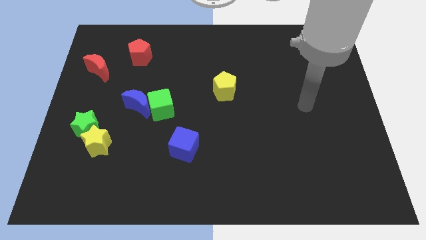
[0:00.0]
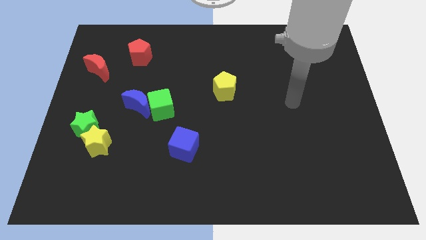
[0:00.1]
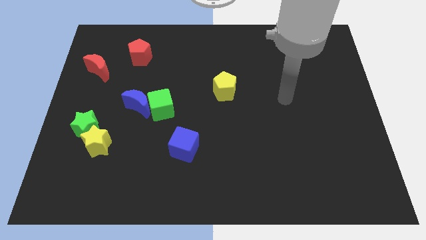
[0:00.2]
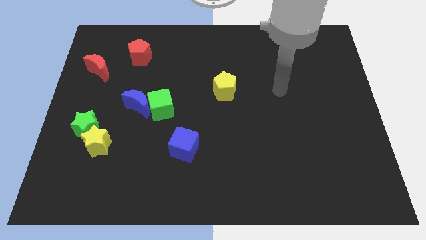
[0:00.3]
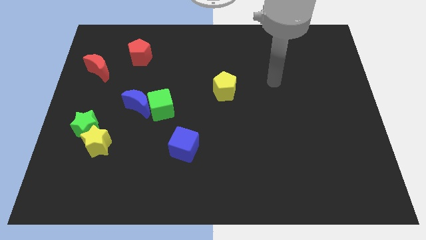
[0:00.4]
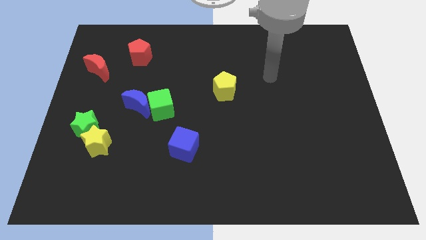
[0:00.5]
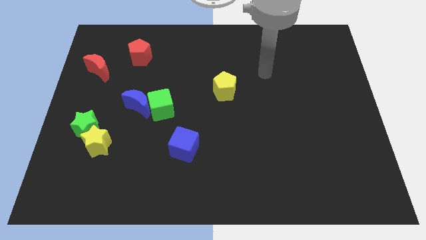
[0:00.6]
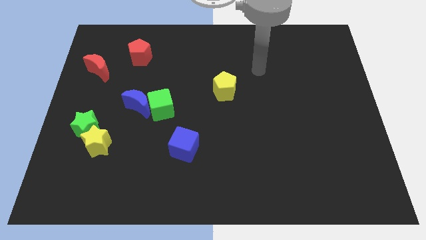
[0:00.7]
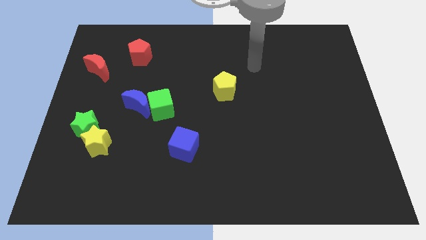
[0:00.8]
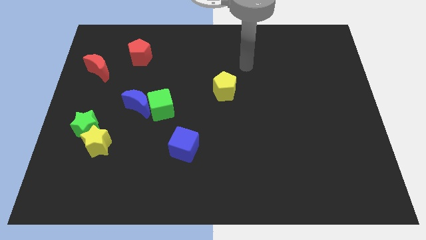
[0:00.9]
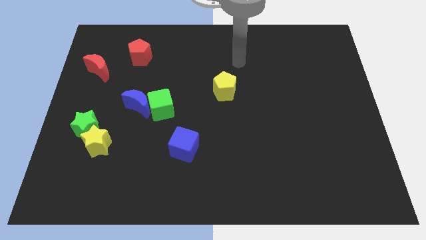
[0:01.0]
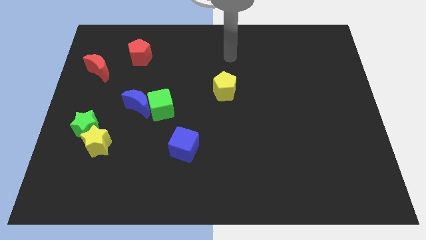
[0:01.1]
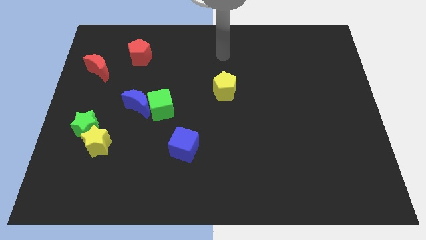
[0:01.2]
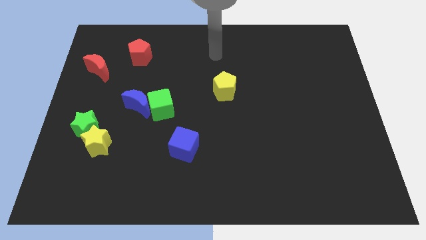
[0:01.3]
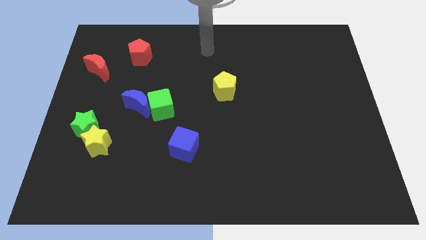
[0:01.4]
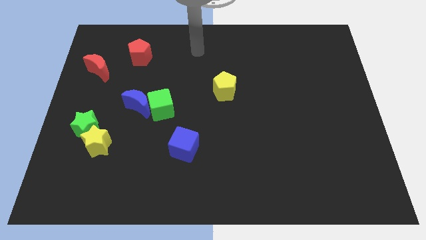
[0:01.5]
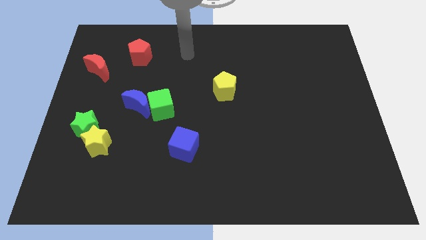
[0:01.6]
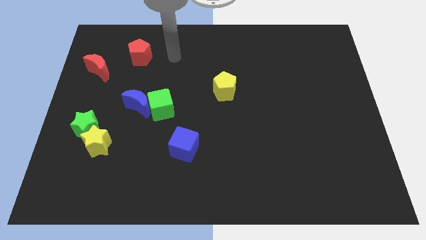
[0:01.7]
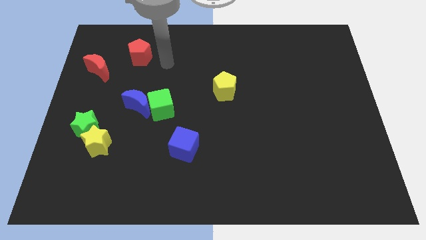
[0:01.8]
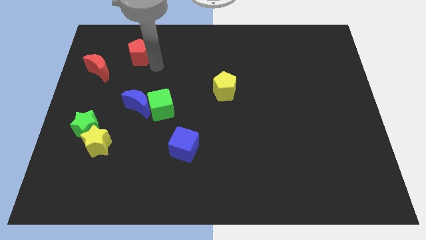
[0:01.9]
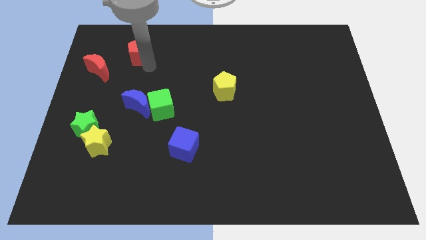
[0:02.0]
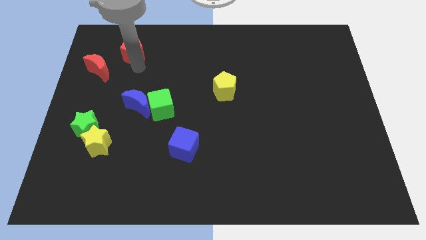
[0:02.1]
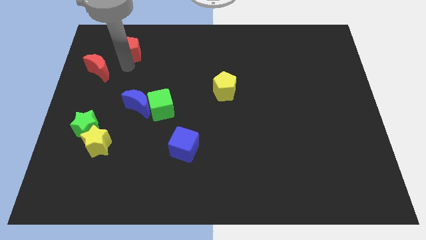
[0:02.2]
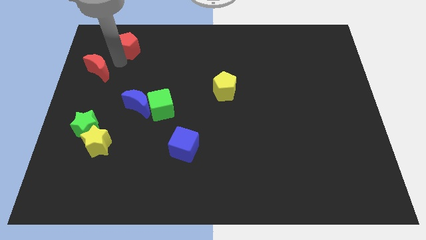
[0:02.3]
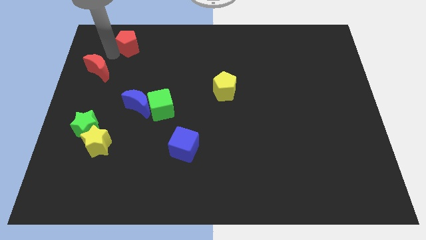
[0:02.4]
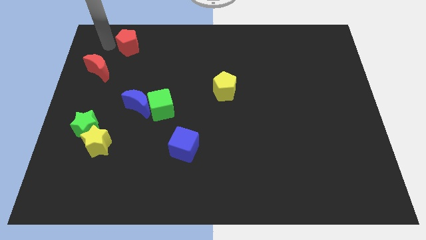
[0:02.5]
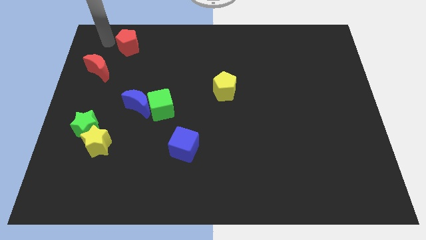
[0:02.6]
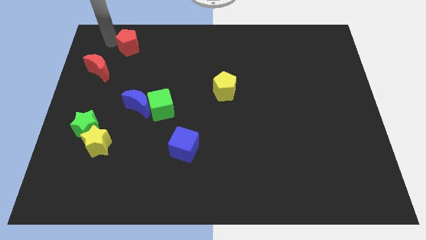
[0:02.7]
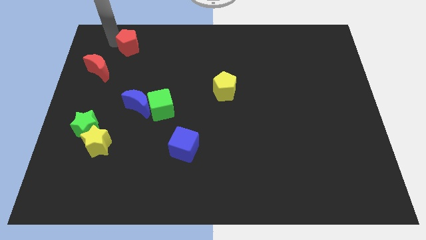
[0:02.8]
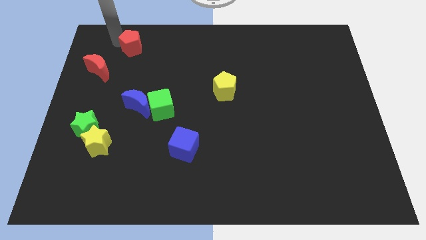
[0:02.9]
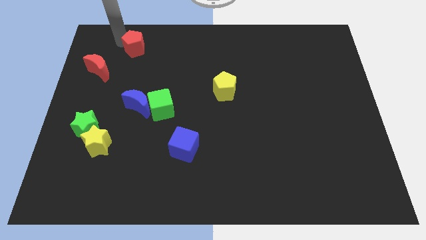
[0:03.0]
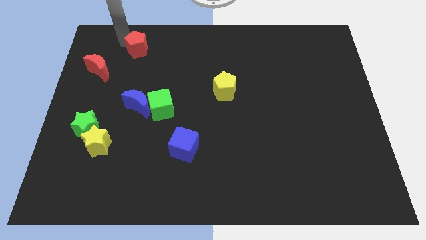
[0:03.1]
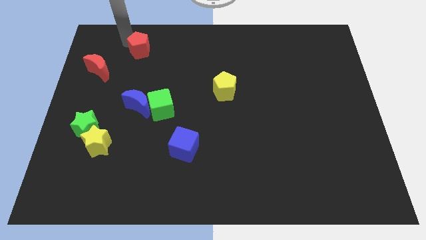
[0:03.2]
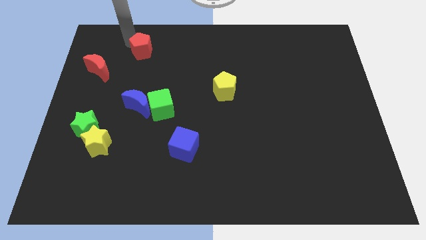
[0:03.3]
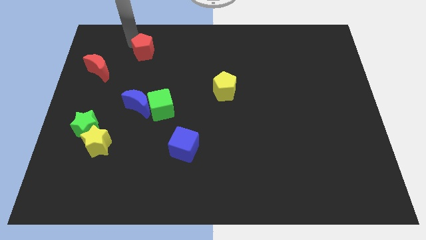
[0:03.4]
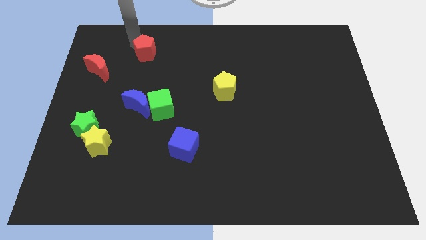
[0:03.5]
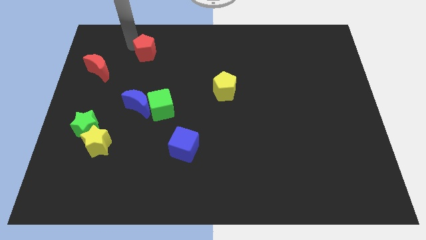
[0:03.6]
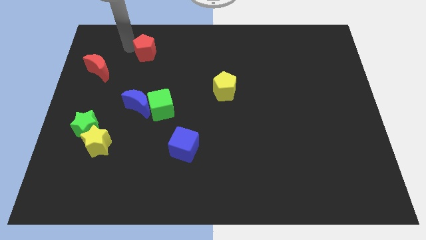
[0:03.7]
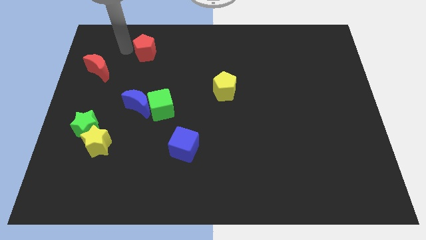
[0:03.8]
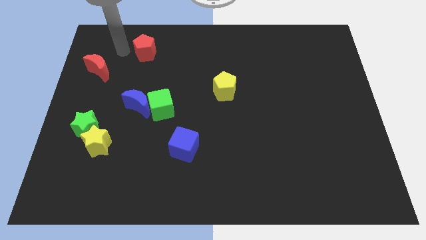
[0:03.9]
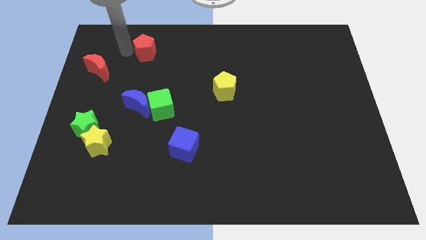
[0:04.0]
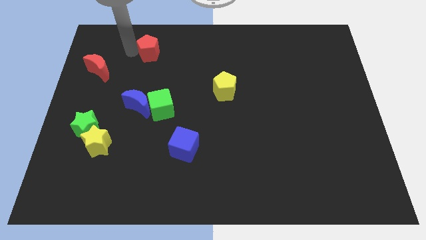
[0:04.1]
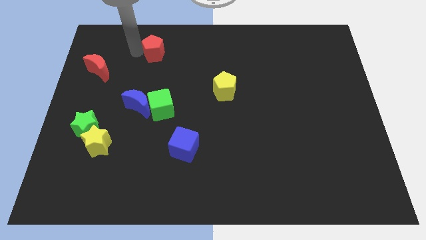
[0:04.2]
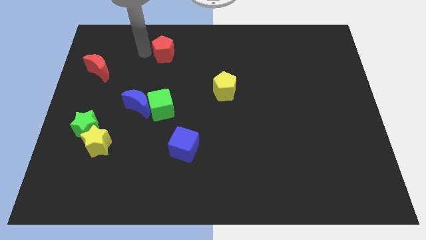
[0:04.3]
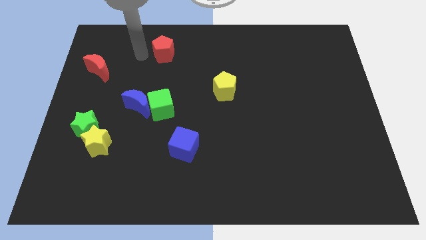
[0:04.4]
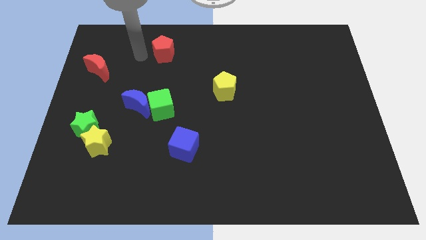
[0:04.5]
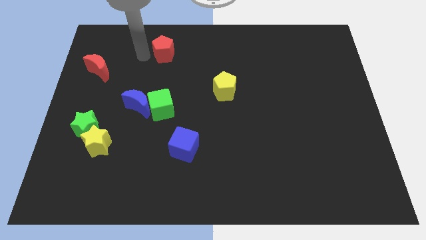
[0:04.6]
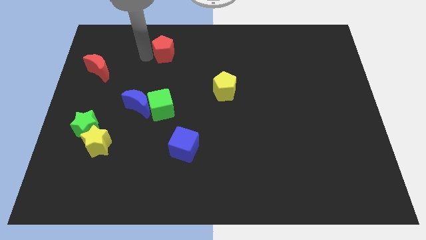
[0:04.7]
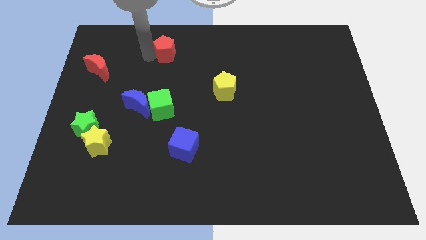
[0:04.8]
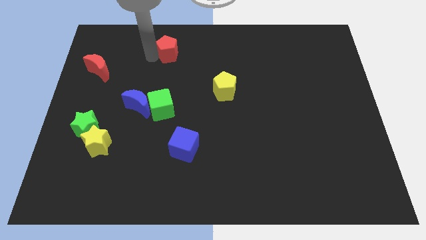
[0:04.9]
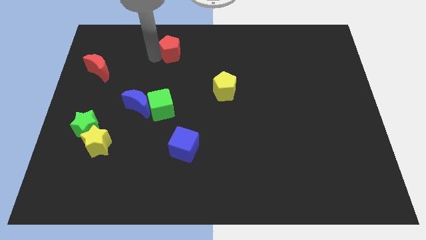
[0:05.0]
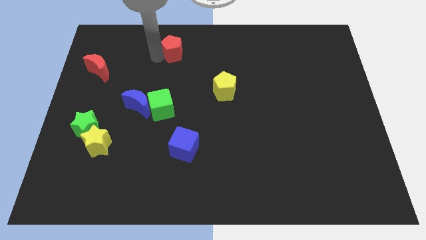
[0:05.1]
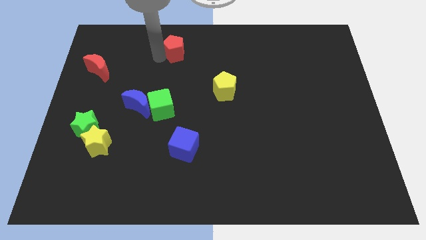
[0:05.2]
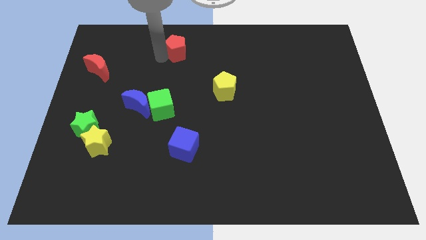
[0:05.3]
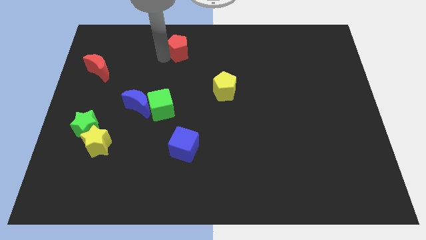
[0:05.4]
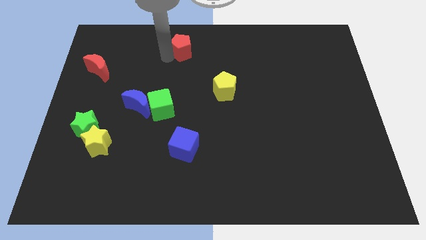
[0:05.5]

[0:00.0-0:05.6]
push the red pentagon to the towards your base

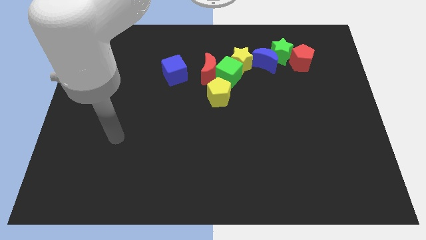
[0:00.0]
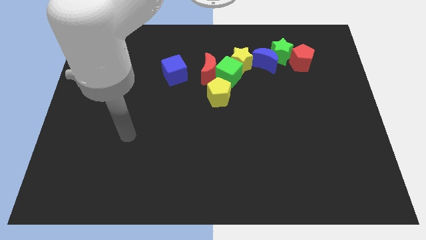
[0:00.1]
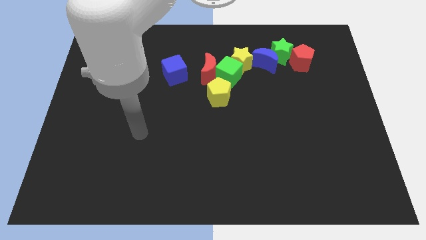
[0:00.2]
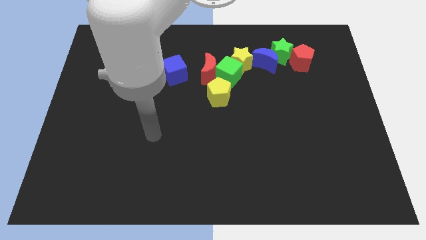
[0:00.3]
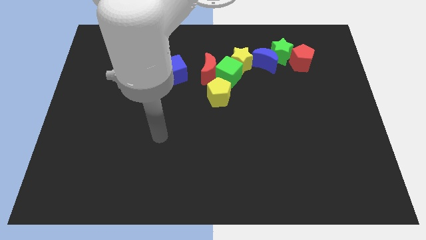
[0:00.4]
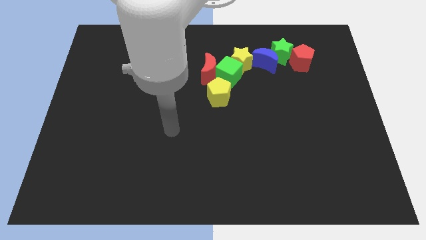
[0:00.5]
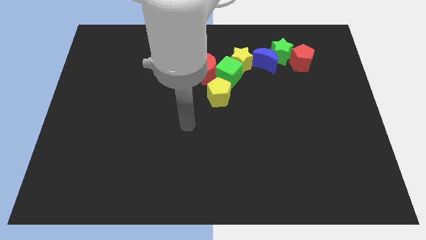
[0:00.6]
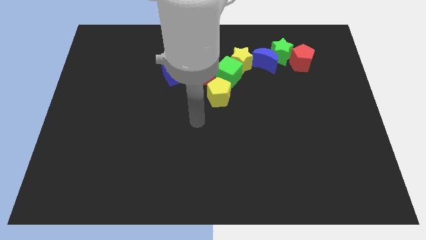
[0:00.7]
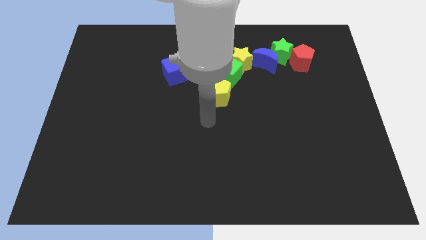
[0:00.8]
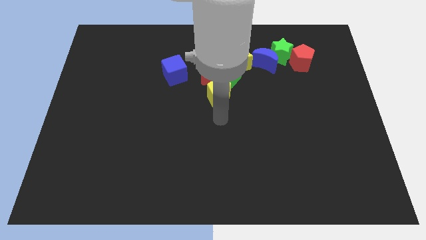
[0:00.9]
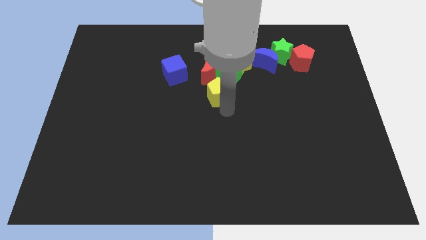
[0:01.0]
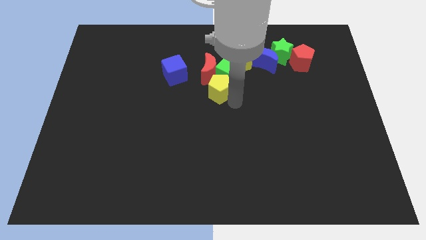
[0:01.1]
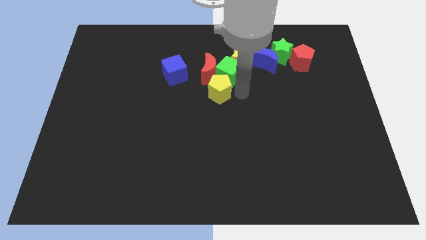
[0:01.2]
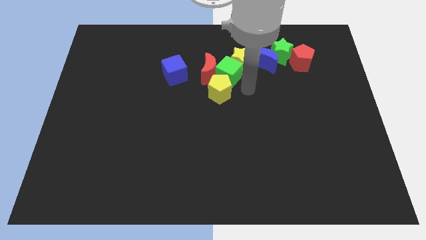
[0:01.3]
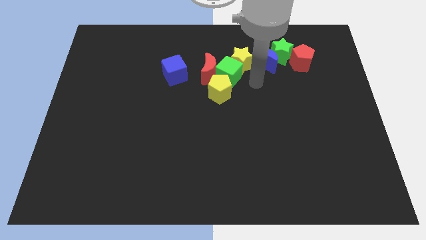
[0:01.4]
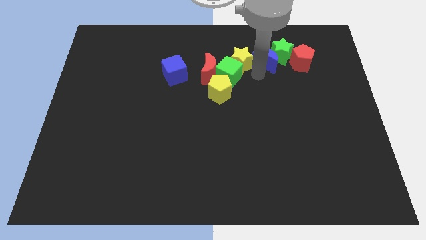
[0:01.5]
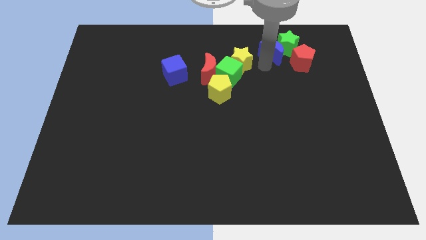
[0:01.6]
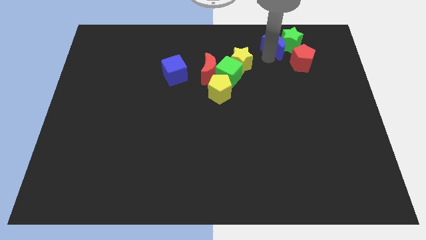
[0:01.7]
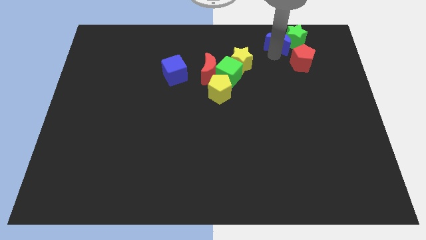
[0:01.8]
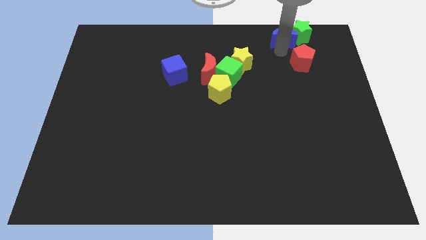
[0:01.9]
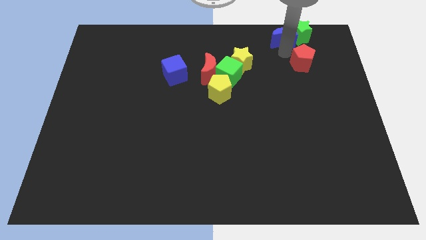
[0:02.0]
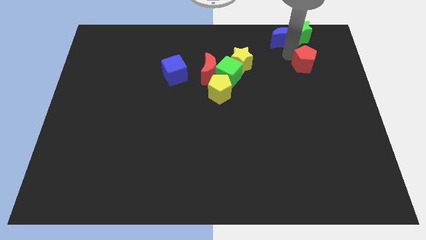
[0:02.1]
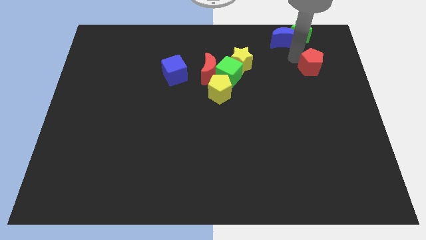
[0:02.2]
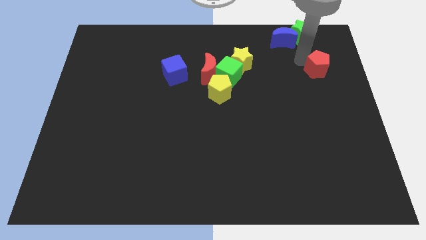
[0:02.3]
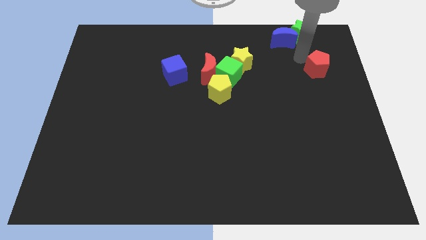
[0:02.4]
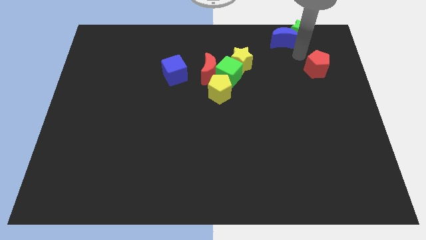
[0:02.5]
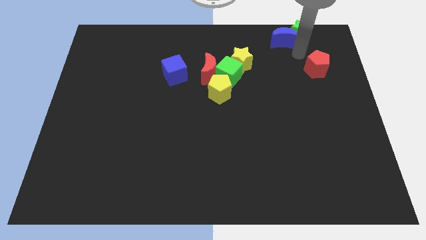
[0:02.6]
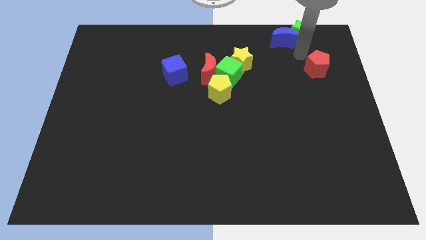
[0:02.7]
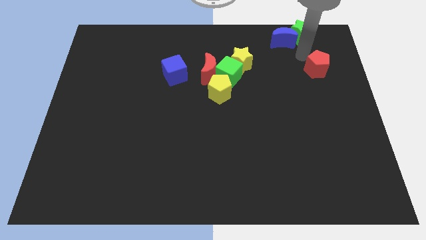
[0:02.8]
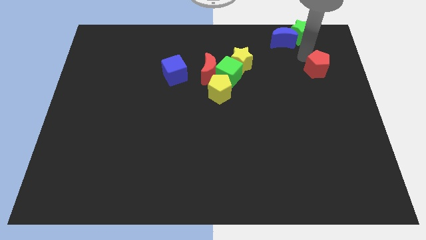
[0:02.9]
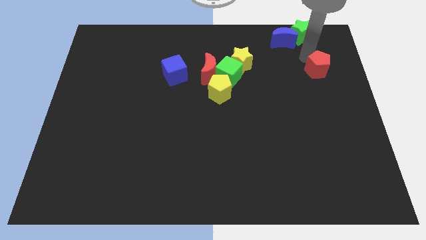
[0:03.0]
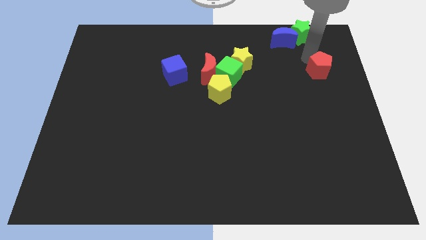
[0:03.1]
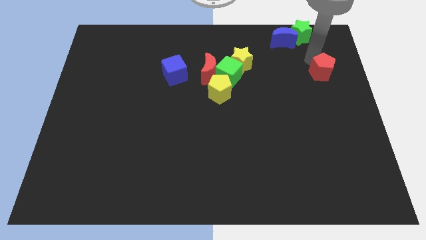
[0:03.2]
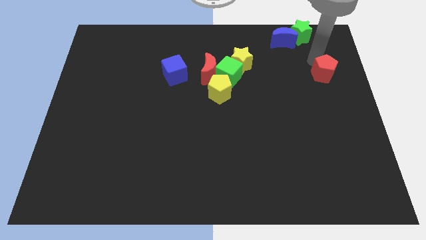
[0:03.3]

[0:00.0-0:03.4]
move the red pentagon to the right side
